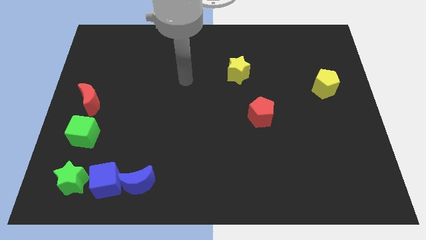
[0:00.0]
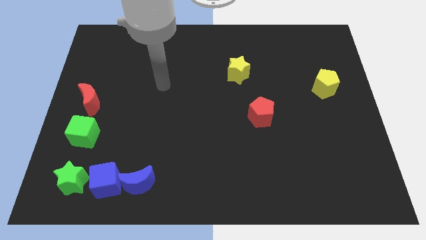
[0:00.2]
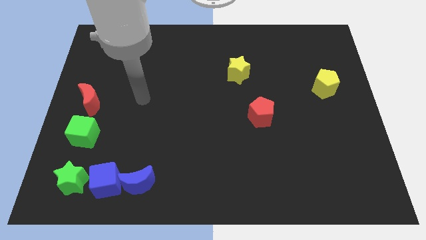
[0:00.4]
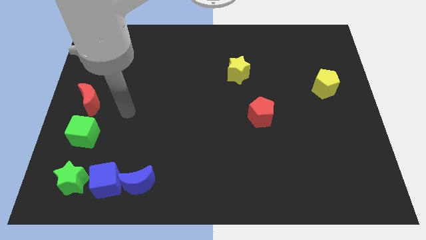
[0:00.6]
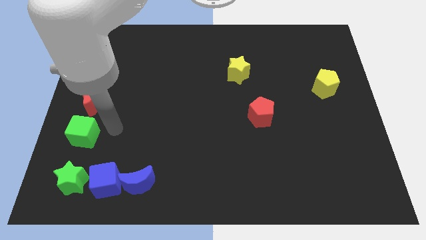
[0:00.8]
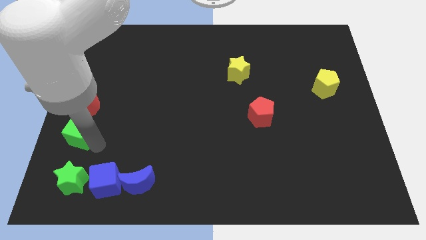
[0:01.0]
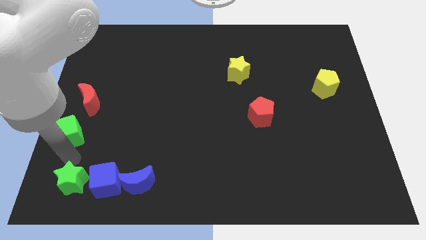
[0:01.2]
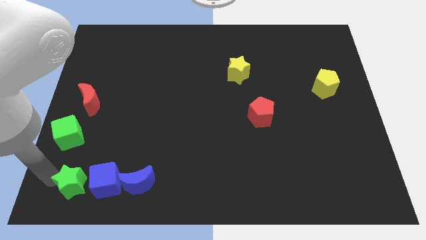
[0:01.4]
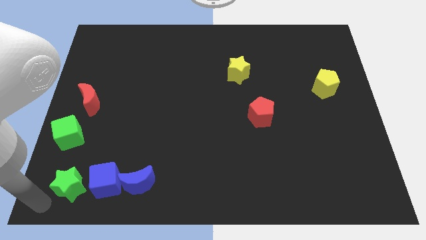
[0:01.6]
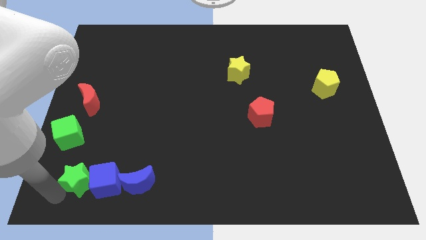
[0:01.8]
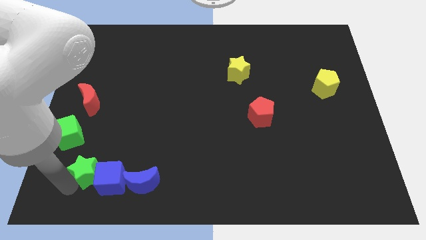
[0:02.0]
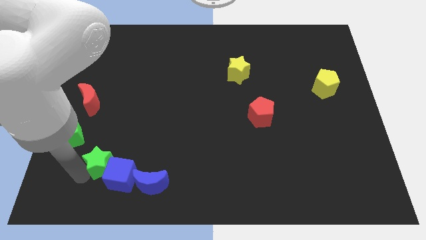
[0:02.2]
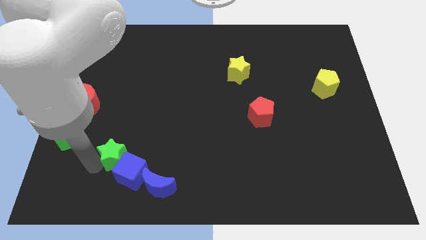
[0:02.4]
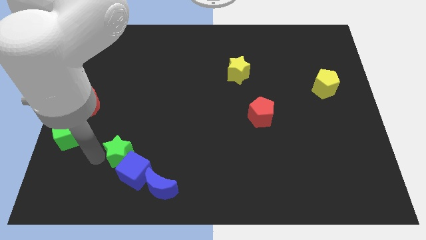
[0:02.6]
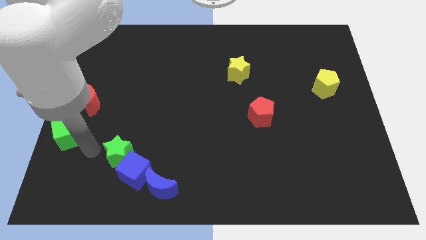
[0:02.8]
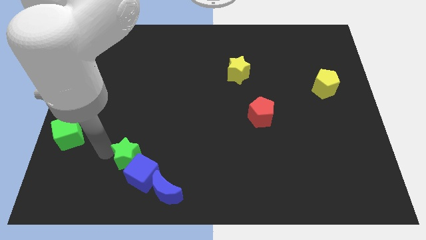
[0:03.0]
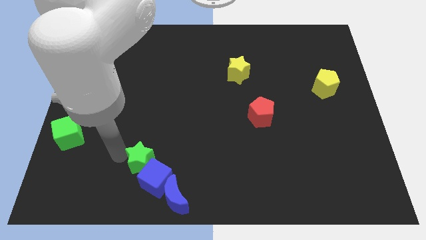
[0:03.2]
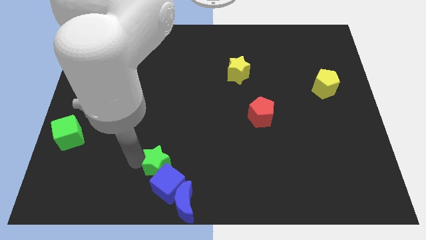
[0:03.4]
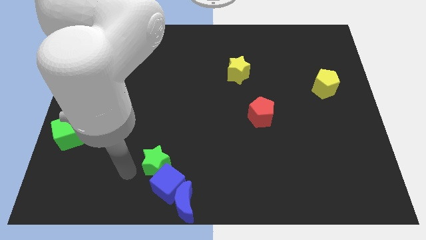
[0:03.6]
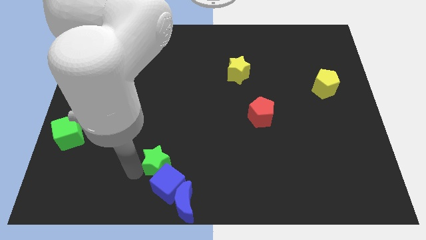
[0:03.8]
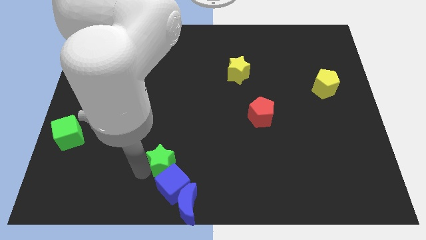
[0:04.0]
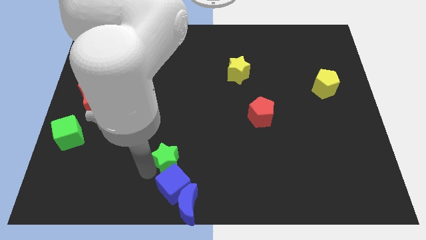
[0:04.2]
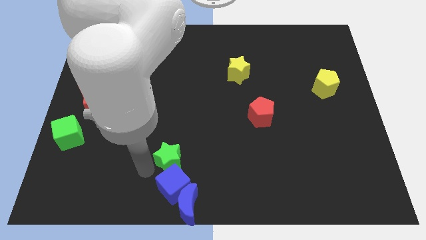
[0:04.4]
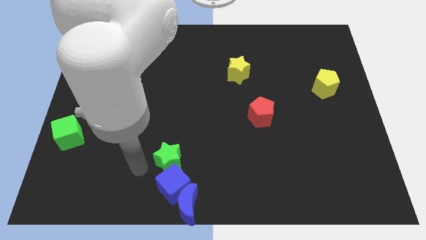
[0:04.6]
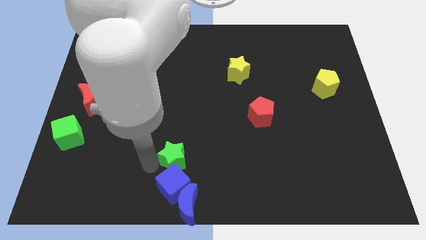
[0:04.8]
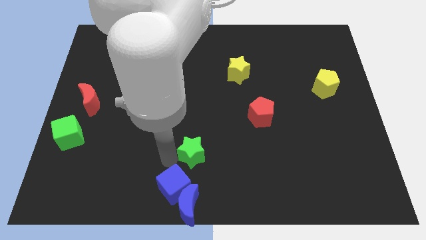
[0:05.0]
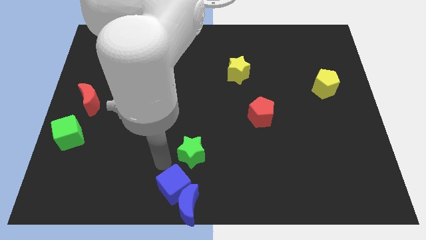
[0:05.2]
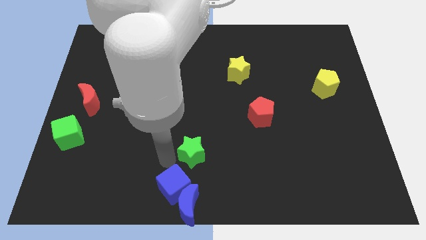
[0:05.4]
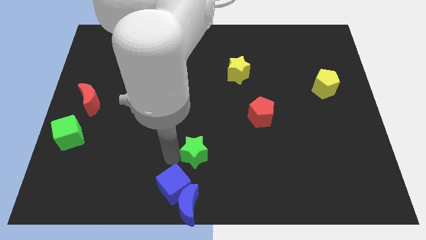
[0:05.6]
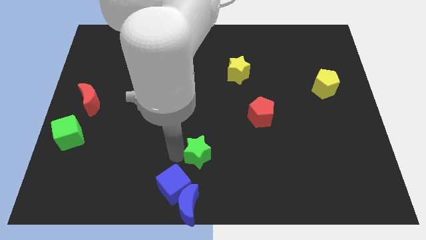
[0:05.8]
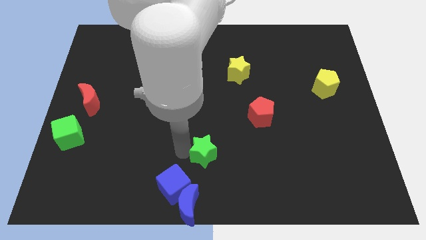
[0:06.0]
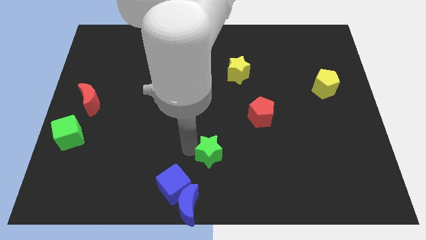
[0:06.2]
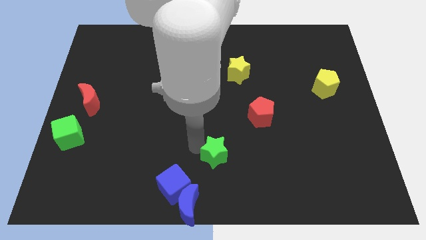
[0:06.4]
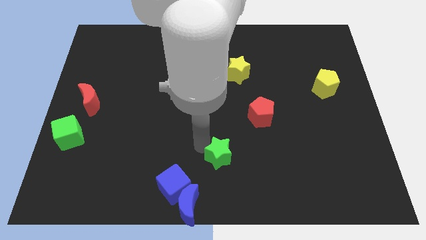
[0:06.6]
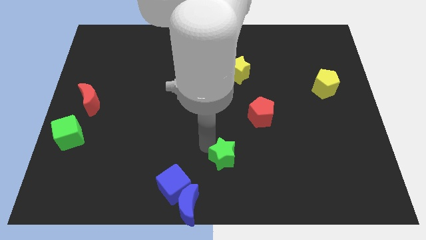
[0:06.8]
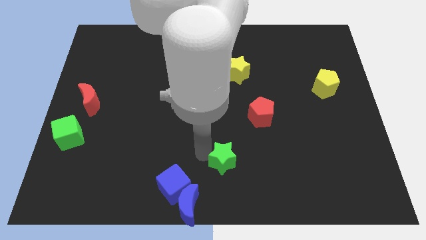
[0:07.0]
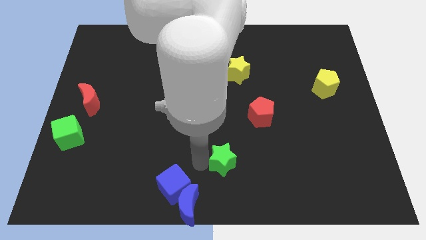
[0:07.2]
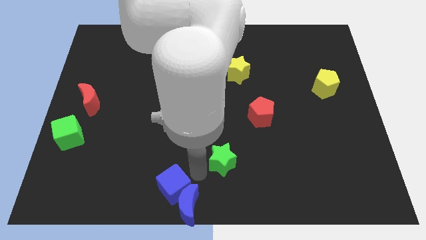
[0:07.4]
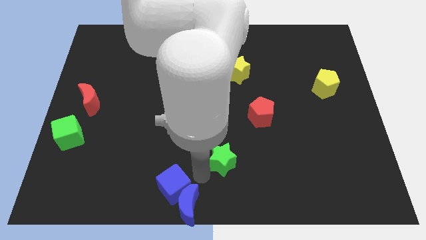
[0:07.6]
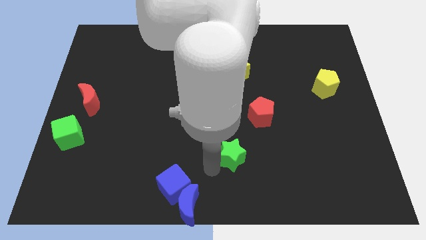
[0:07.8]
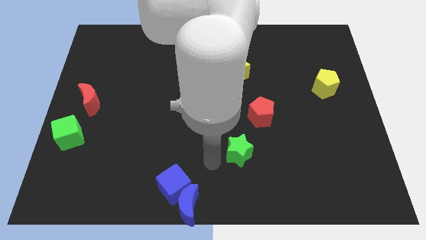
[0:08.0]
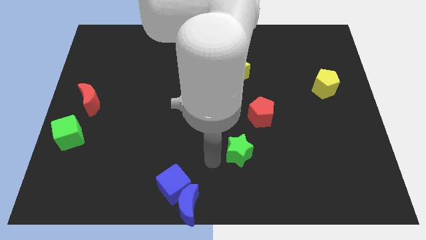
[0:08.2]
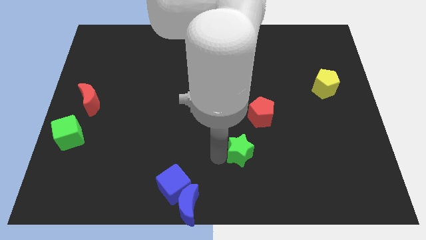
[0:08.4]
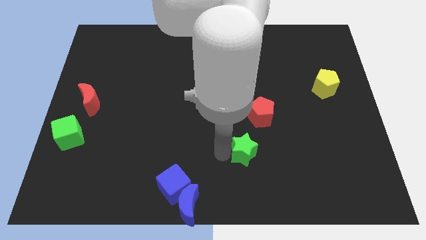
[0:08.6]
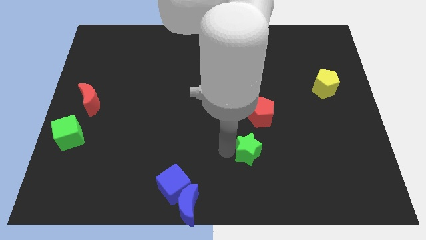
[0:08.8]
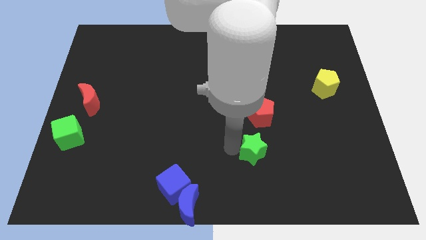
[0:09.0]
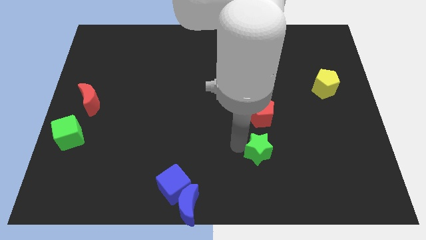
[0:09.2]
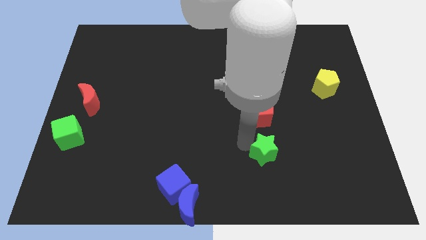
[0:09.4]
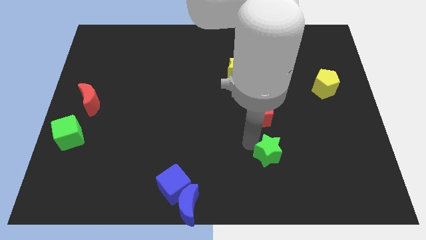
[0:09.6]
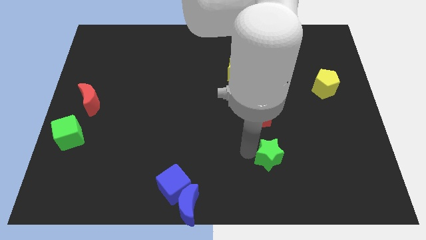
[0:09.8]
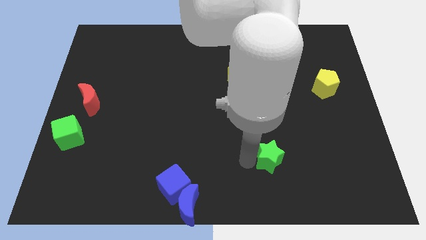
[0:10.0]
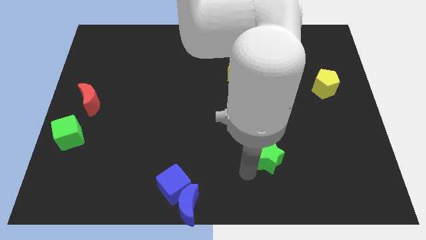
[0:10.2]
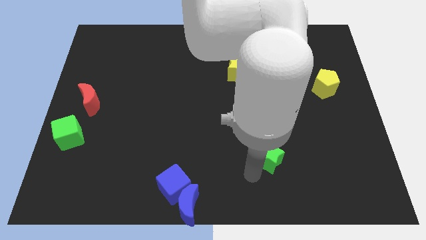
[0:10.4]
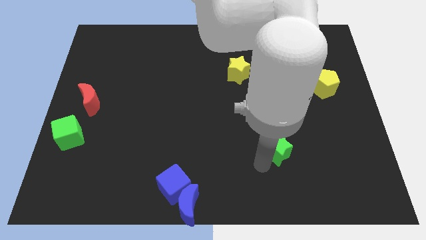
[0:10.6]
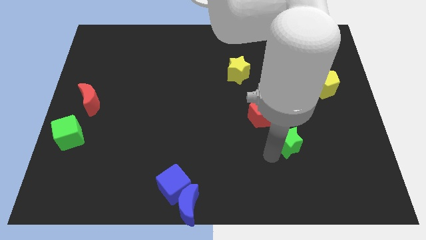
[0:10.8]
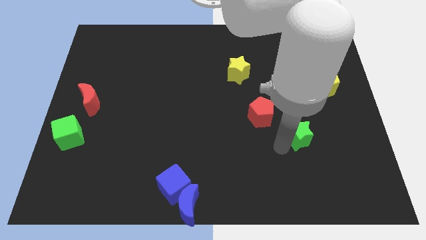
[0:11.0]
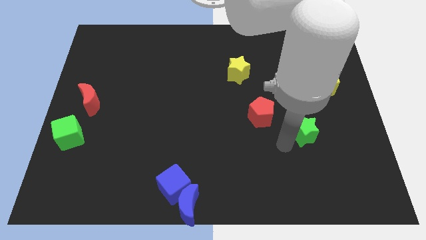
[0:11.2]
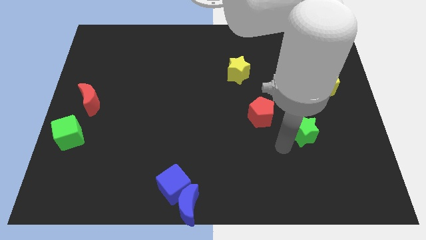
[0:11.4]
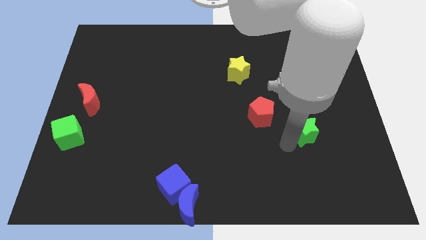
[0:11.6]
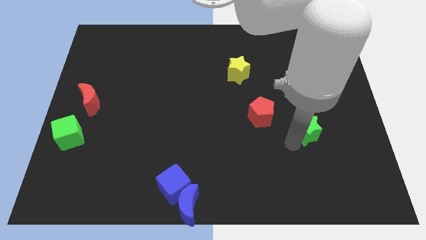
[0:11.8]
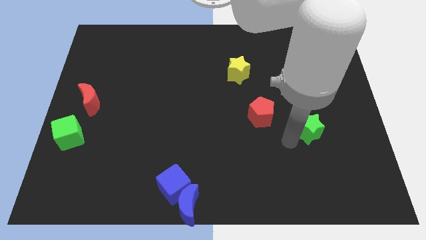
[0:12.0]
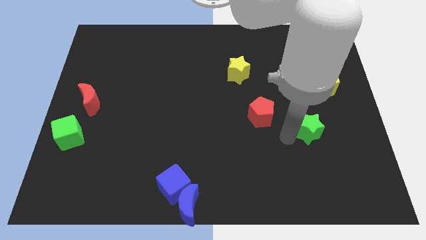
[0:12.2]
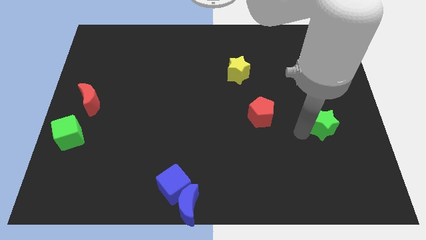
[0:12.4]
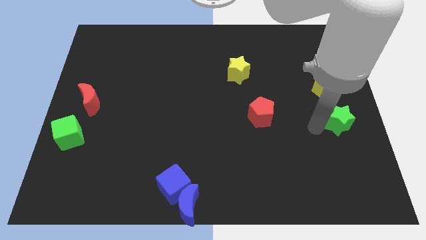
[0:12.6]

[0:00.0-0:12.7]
push the green star to the center right

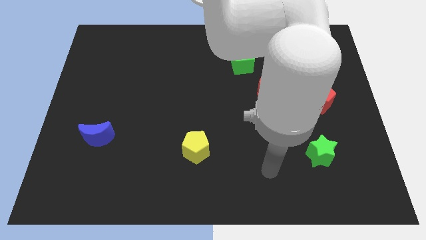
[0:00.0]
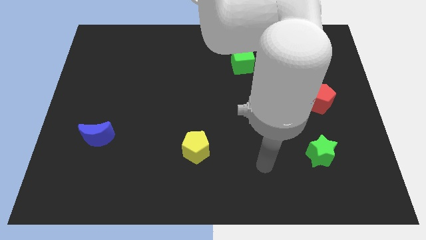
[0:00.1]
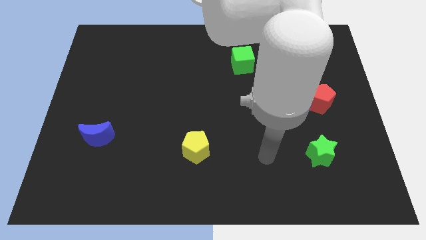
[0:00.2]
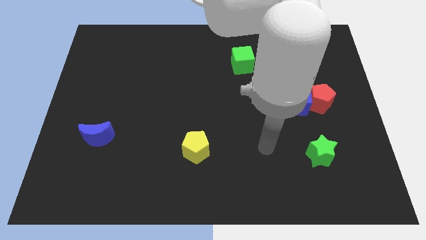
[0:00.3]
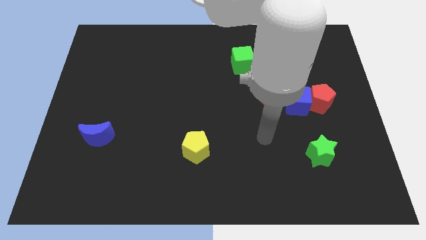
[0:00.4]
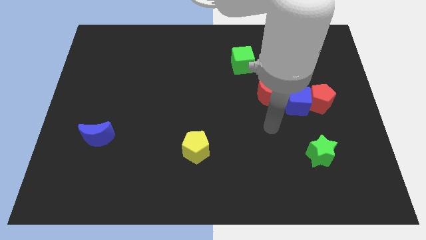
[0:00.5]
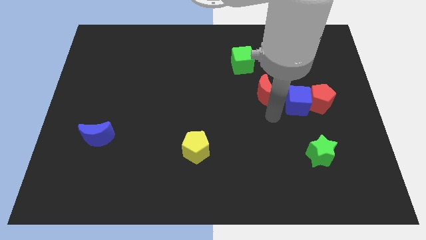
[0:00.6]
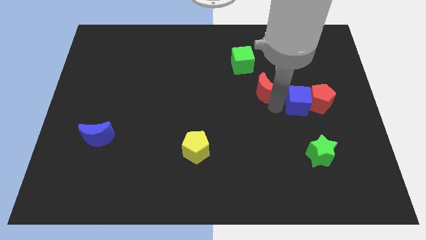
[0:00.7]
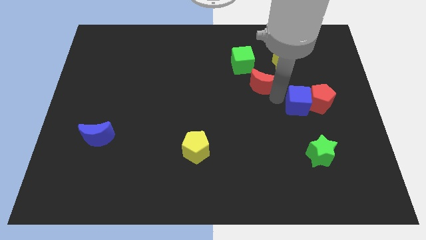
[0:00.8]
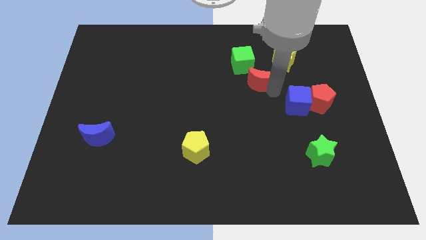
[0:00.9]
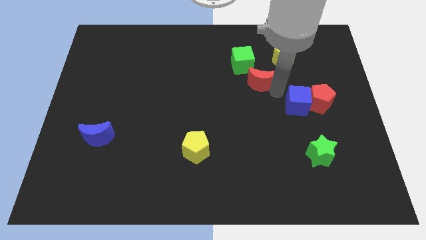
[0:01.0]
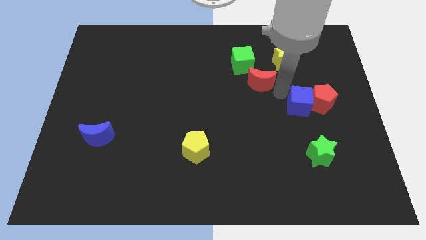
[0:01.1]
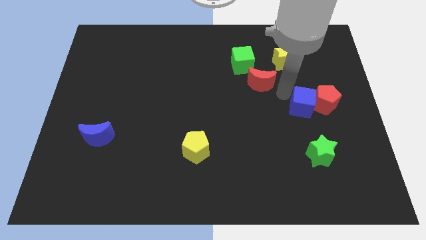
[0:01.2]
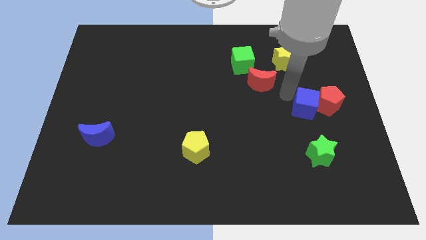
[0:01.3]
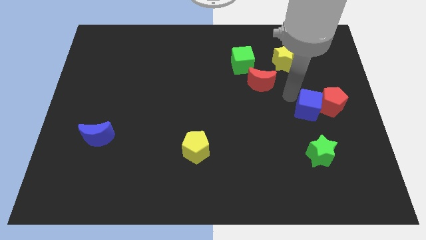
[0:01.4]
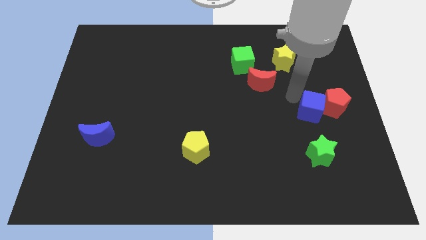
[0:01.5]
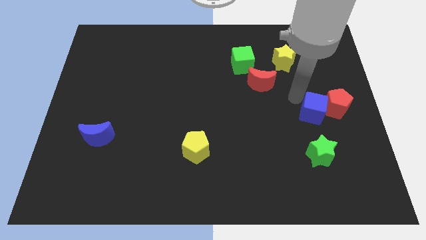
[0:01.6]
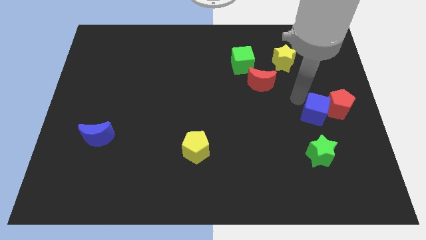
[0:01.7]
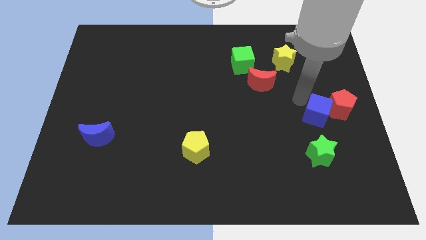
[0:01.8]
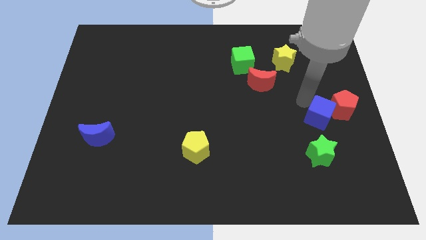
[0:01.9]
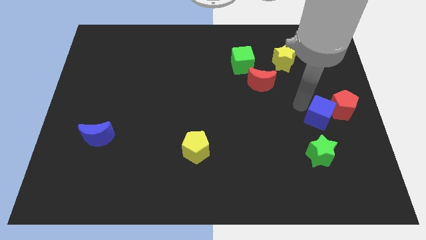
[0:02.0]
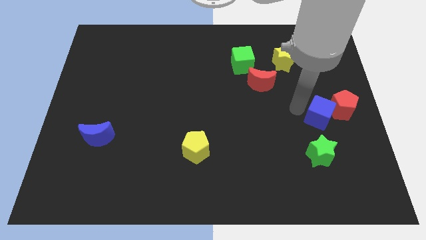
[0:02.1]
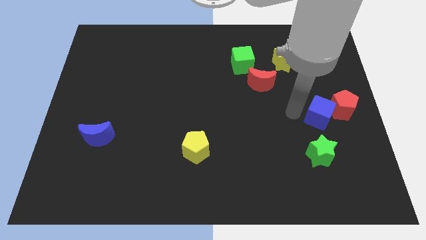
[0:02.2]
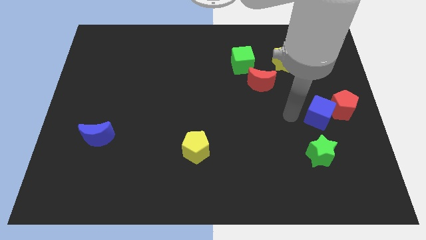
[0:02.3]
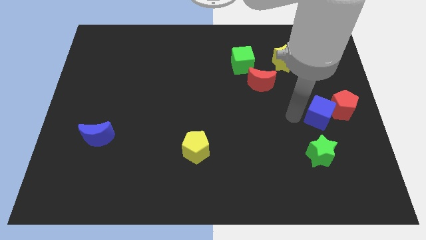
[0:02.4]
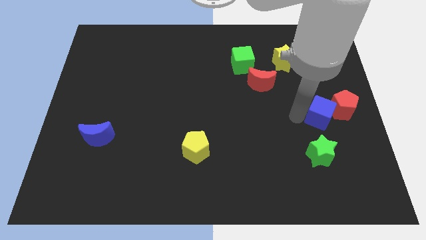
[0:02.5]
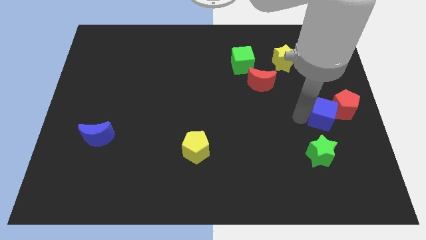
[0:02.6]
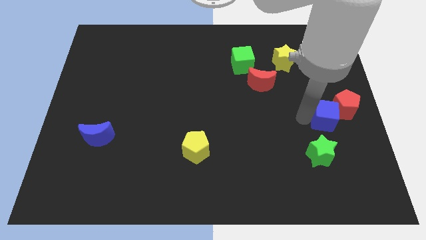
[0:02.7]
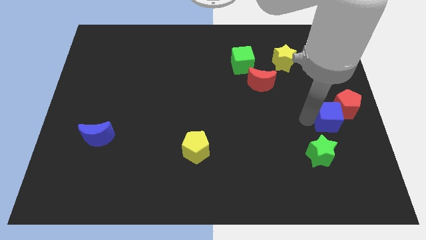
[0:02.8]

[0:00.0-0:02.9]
move the blue cube to the right side
